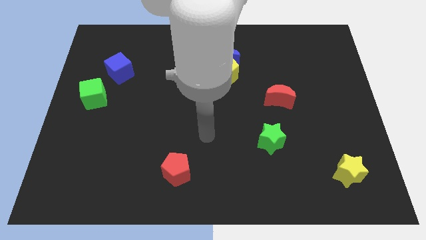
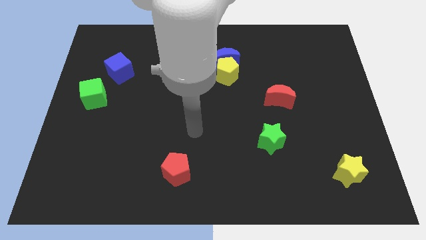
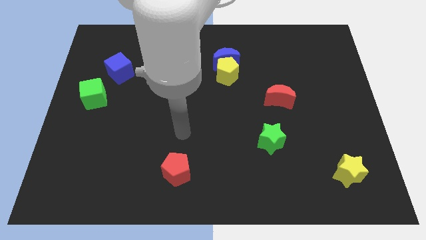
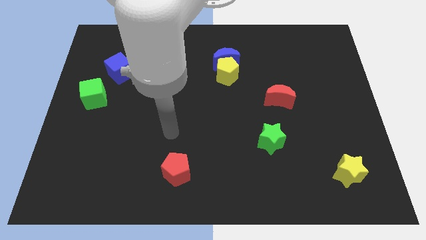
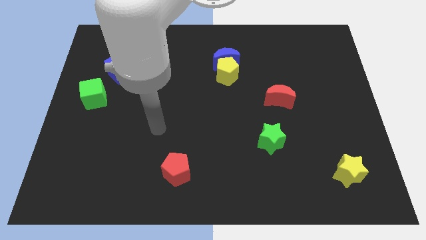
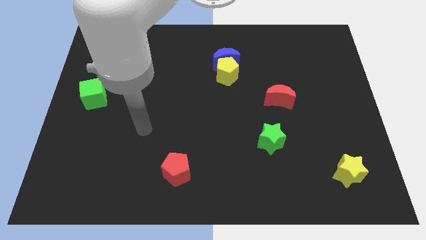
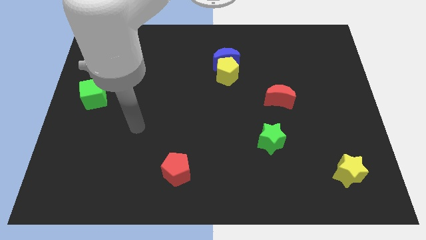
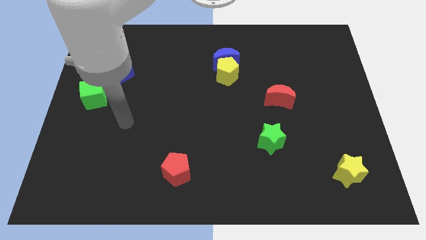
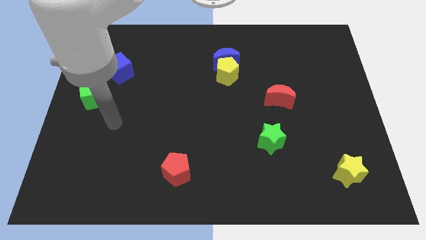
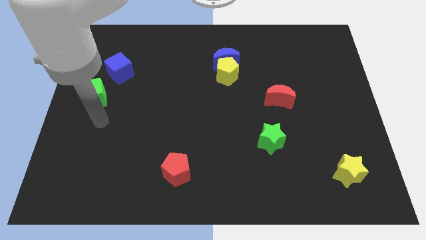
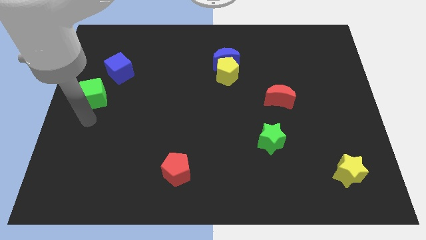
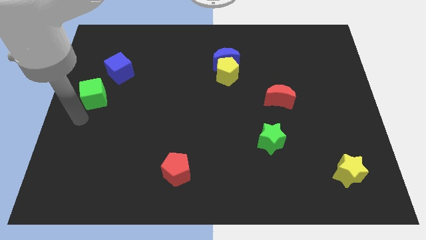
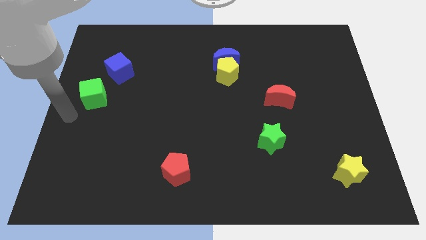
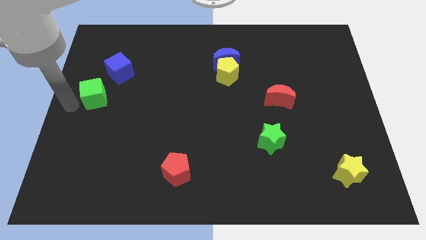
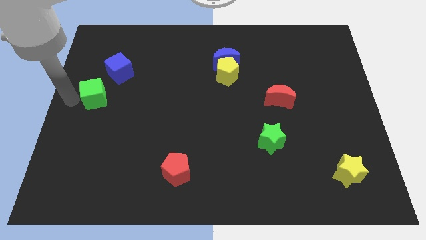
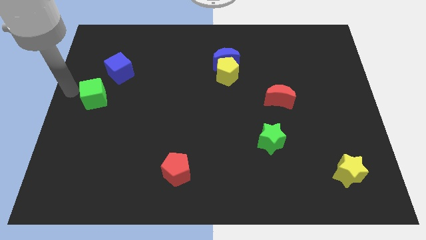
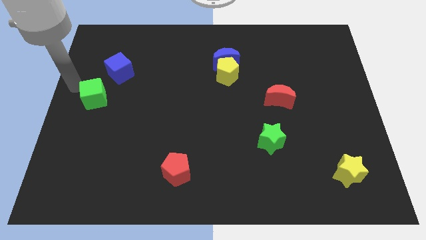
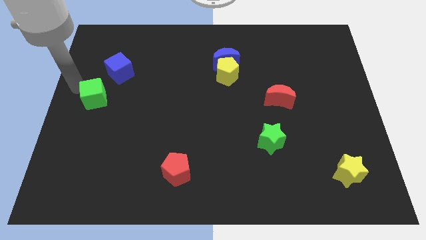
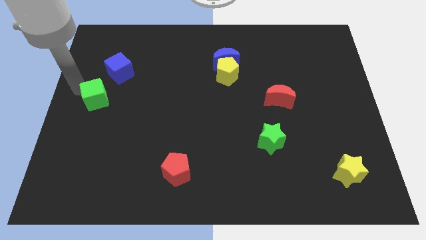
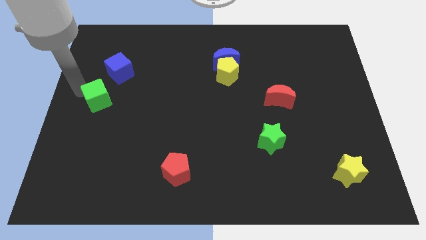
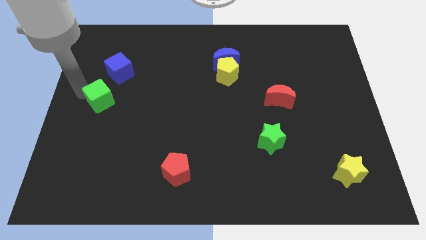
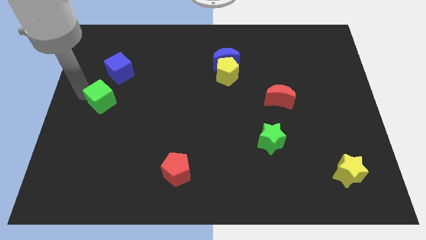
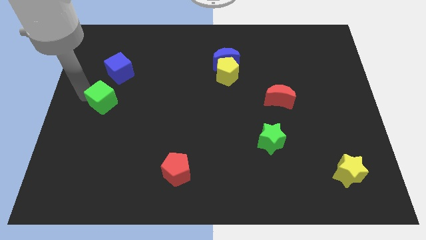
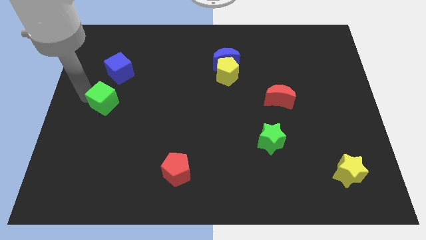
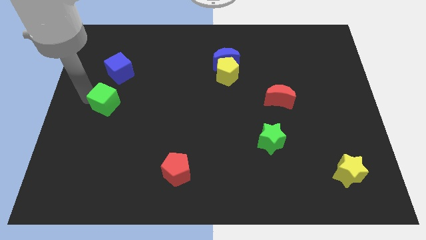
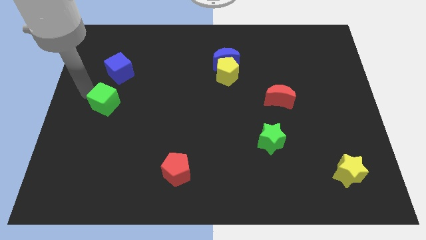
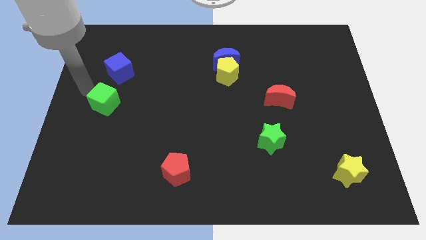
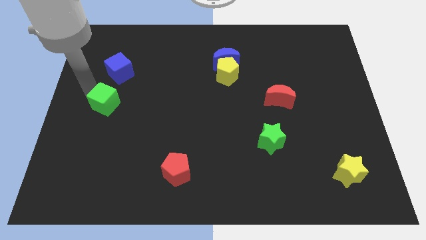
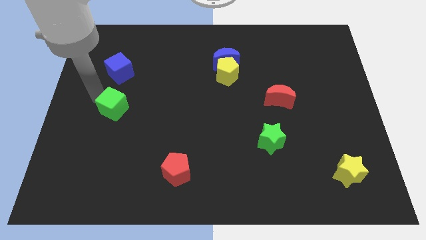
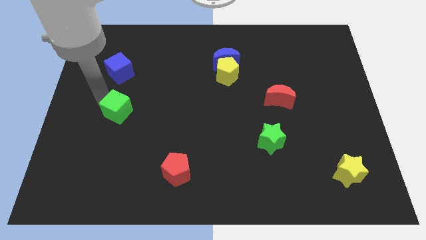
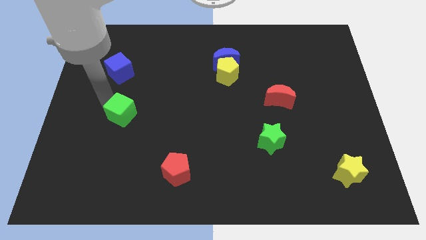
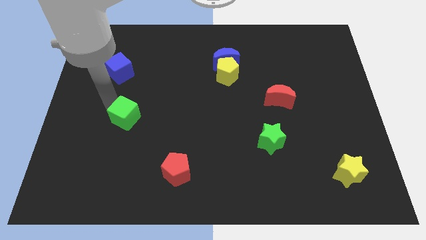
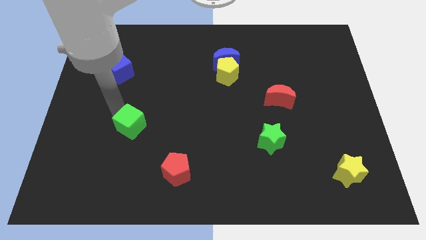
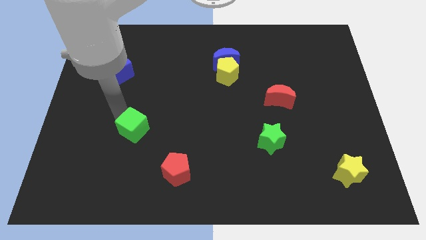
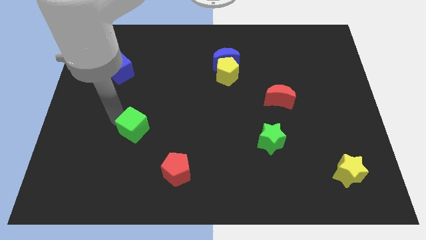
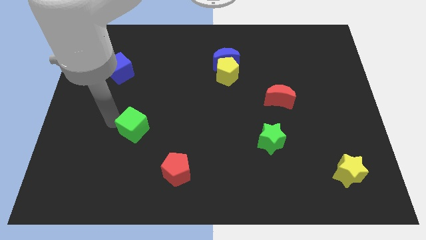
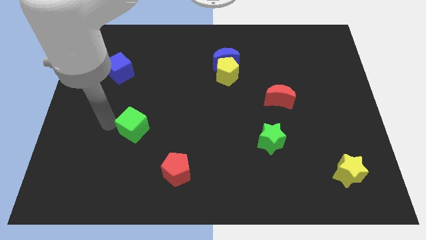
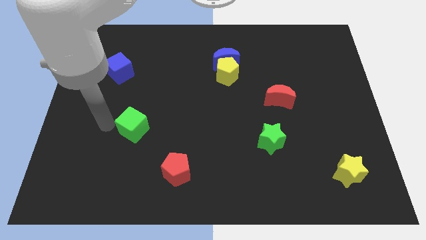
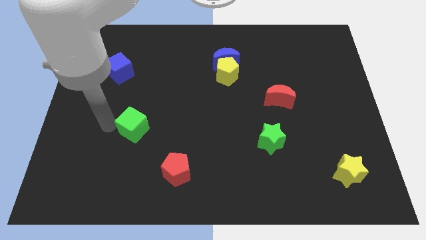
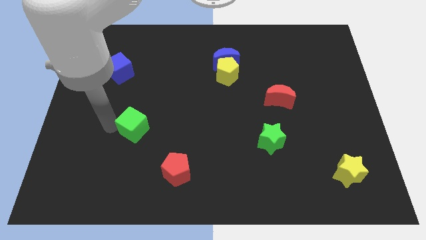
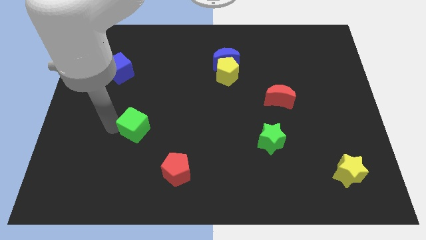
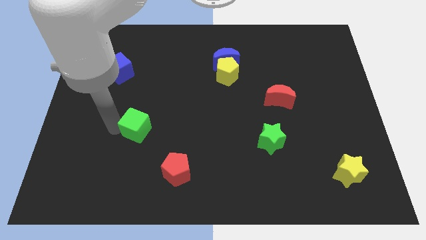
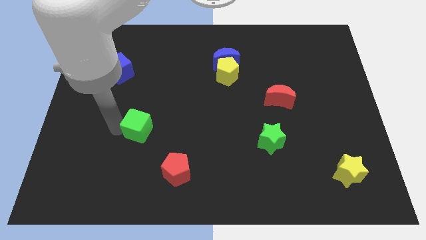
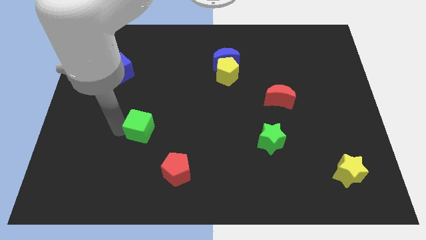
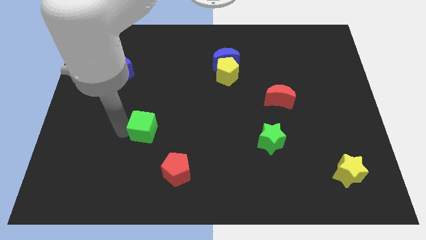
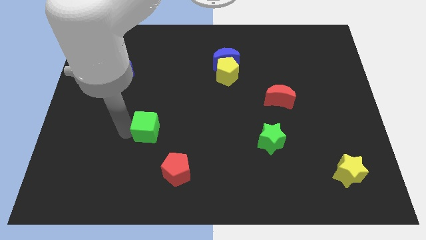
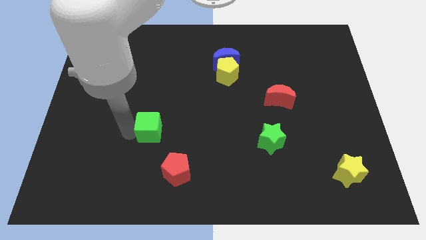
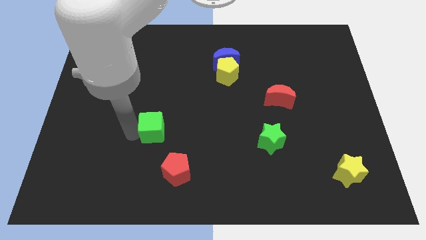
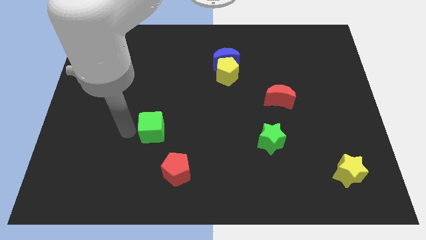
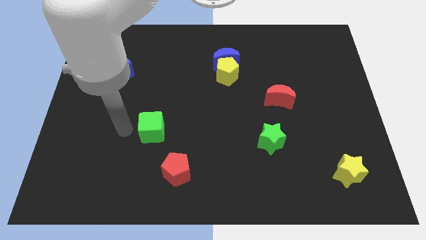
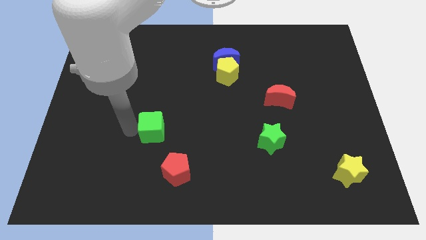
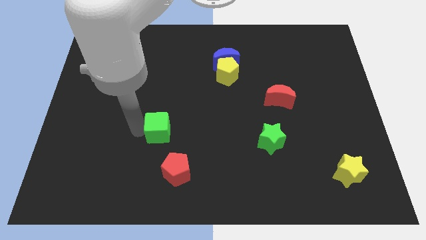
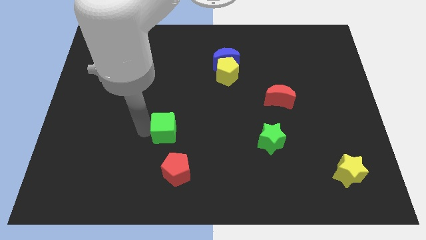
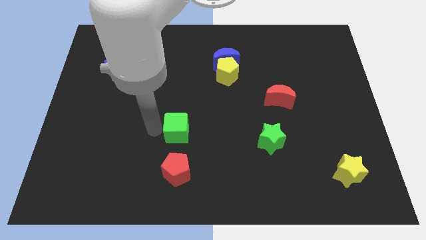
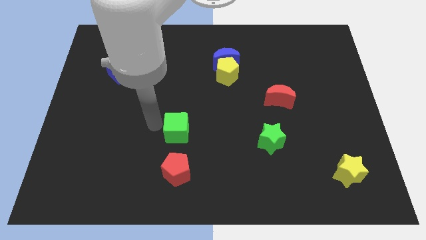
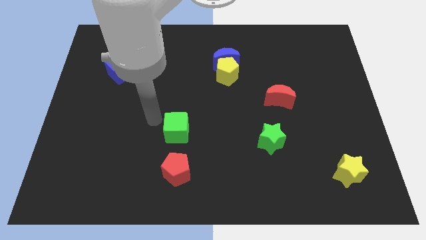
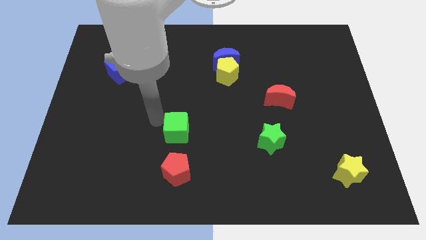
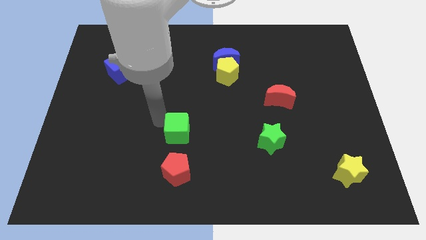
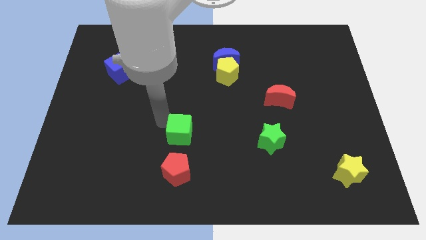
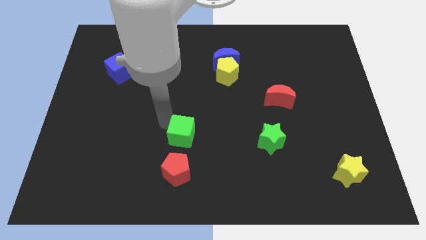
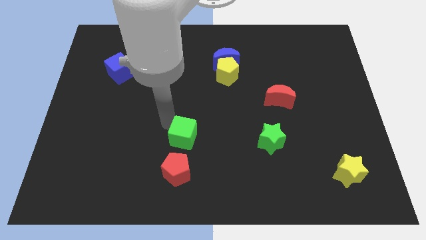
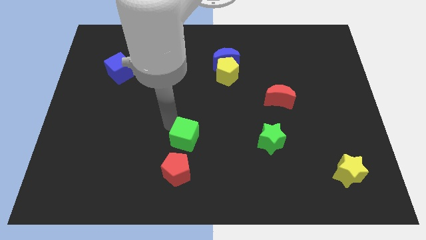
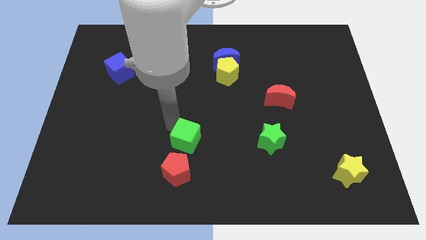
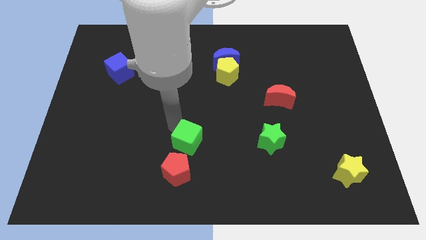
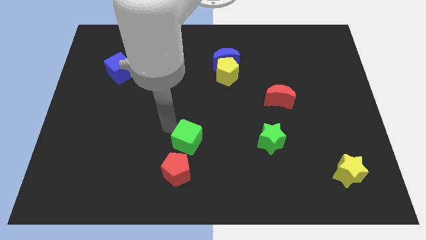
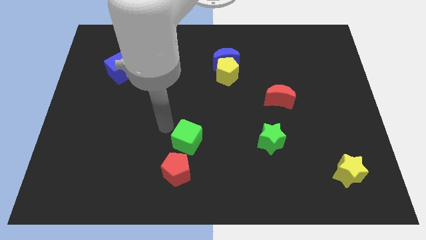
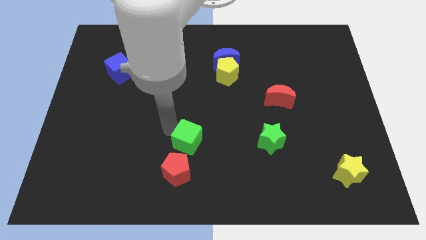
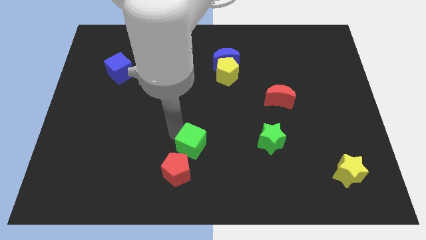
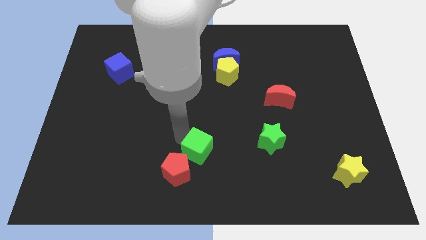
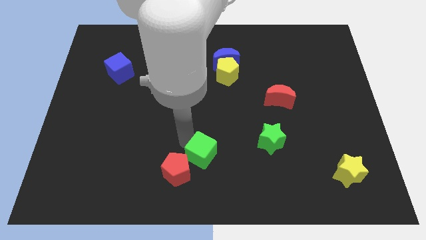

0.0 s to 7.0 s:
push the green cube to the right of the red pentagon
